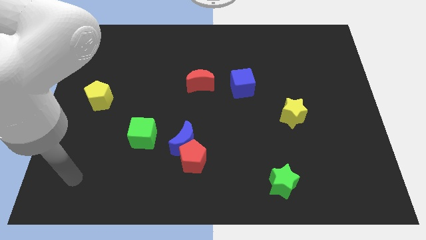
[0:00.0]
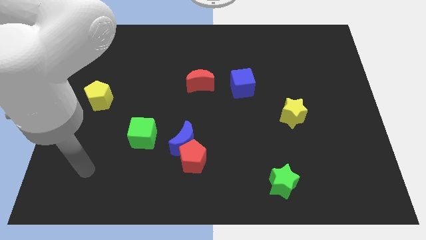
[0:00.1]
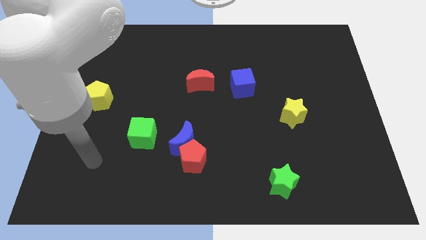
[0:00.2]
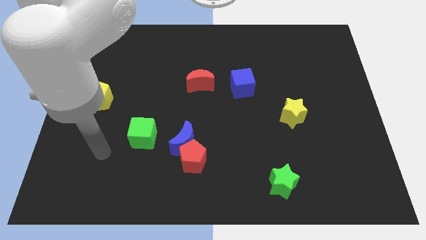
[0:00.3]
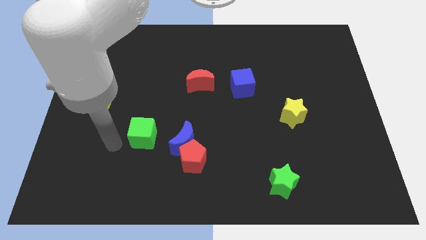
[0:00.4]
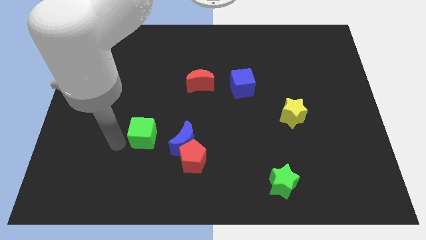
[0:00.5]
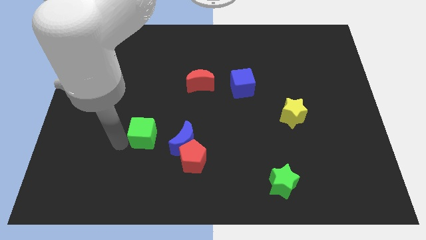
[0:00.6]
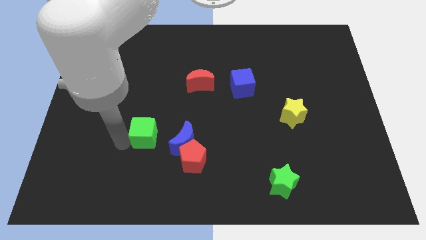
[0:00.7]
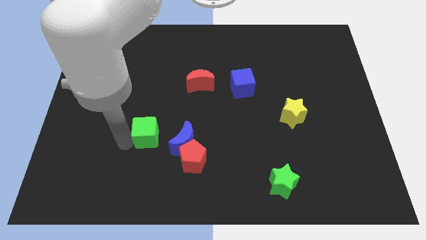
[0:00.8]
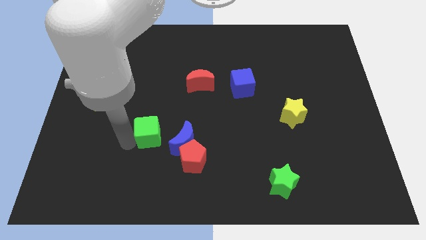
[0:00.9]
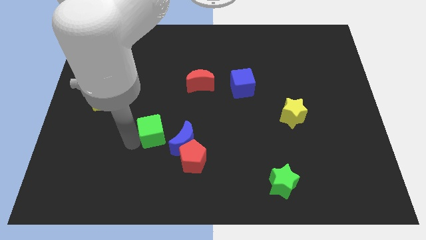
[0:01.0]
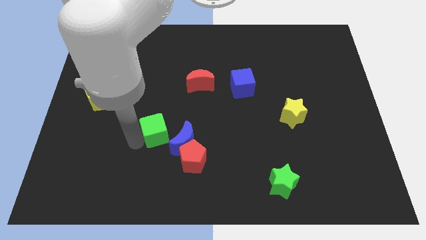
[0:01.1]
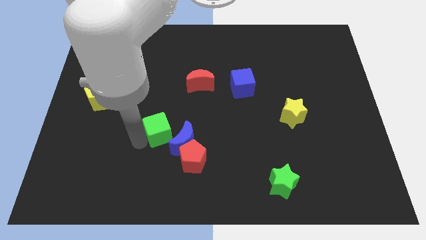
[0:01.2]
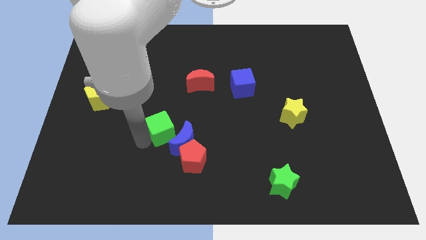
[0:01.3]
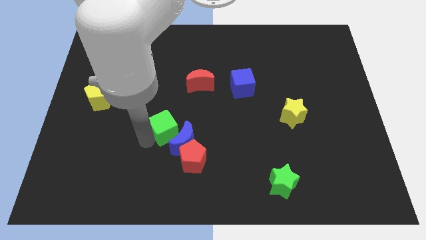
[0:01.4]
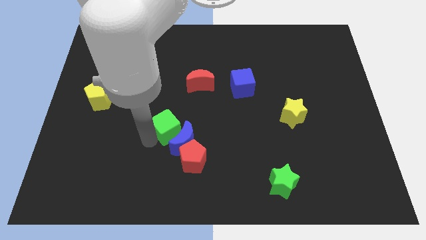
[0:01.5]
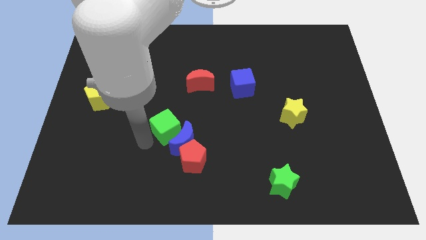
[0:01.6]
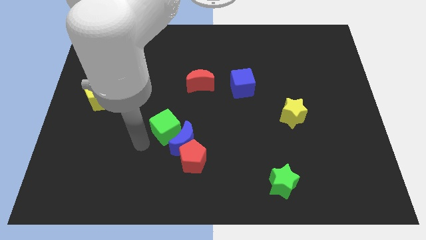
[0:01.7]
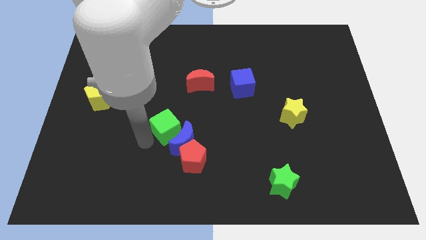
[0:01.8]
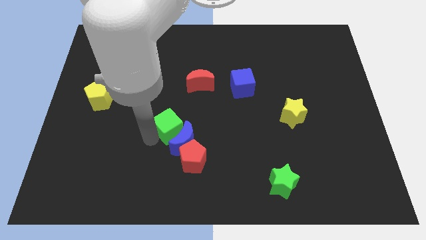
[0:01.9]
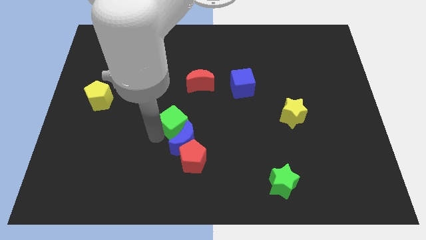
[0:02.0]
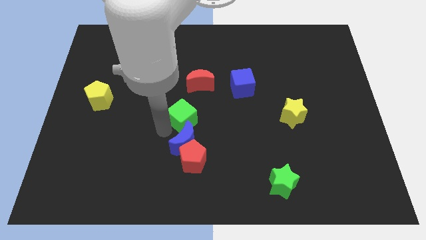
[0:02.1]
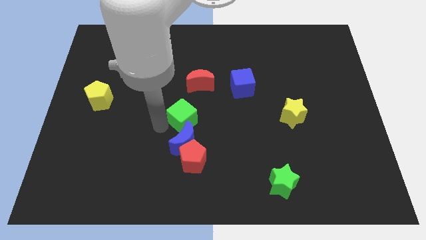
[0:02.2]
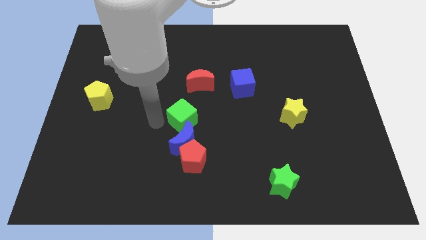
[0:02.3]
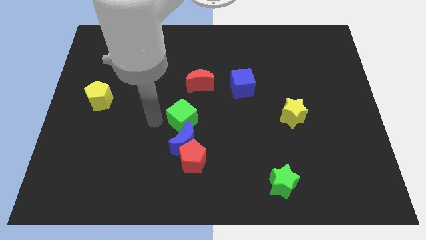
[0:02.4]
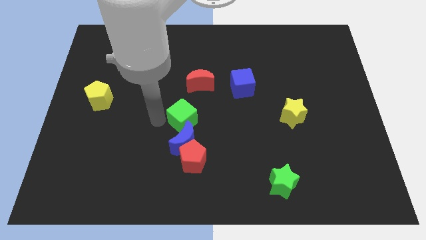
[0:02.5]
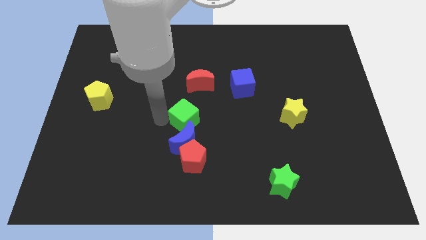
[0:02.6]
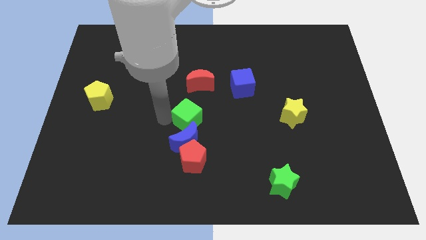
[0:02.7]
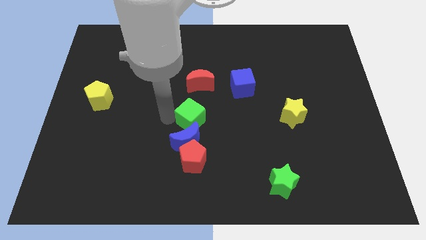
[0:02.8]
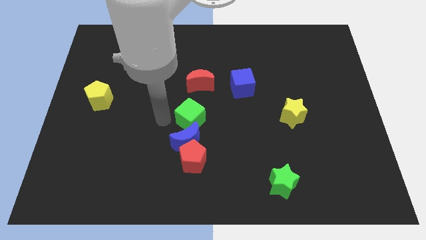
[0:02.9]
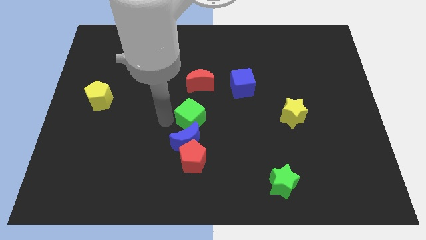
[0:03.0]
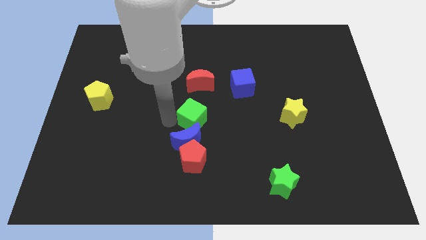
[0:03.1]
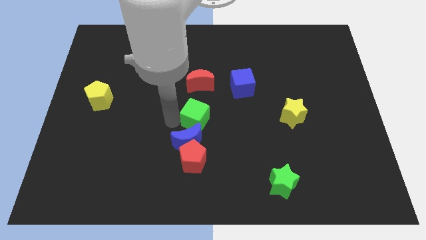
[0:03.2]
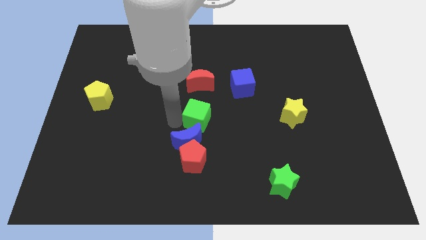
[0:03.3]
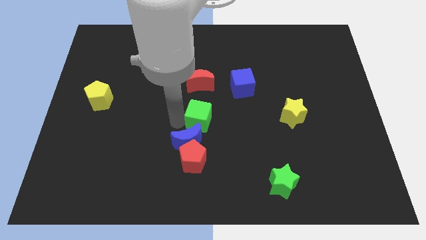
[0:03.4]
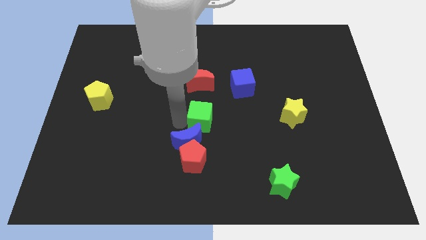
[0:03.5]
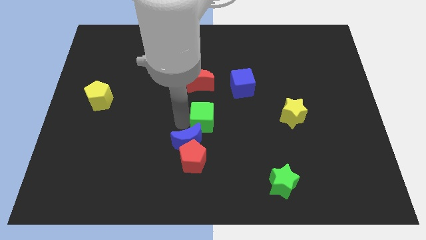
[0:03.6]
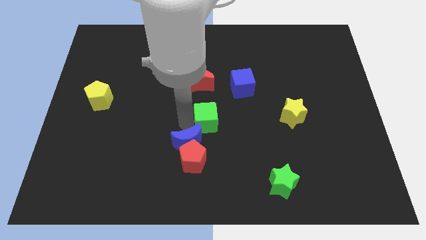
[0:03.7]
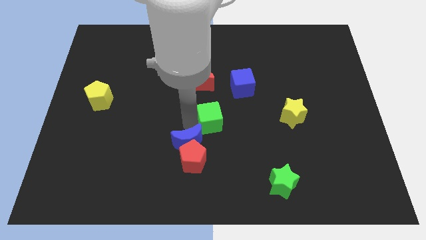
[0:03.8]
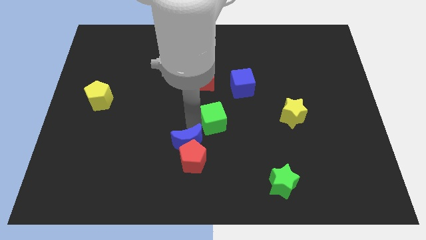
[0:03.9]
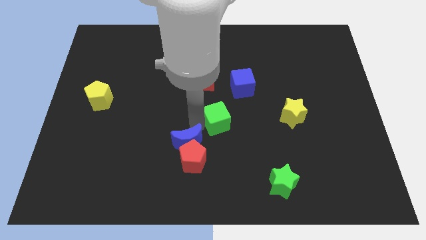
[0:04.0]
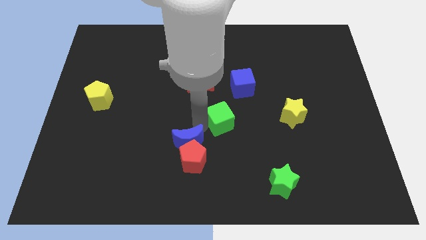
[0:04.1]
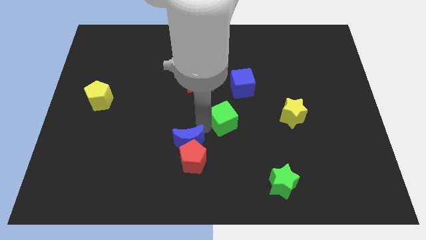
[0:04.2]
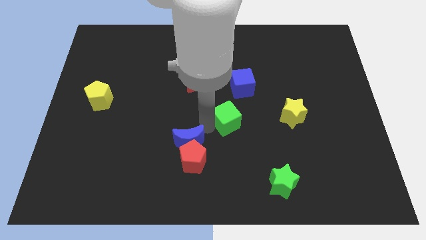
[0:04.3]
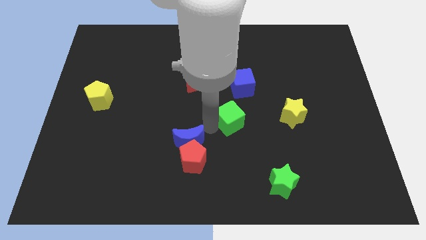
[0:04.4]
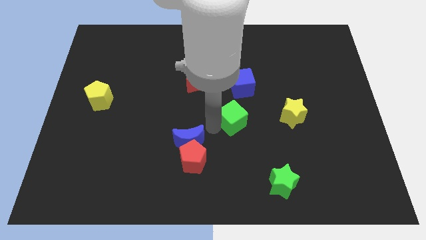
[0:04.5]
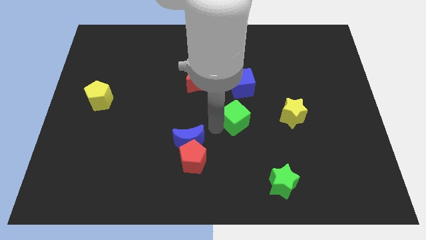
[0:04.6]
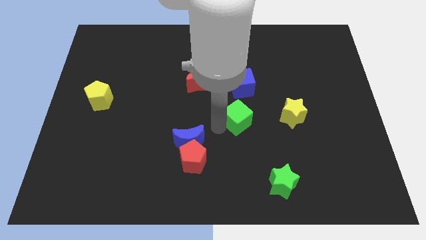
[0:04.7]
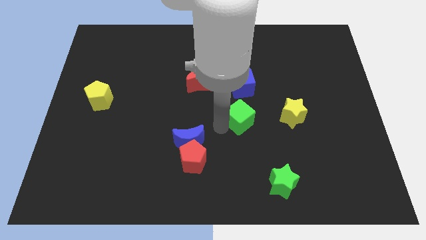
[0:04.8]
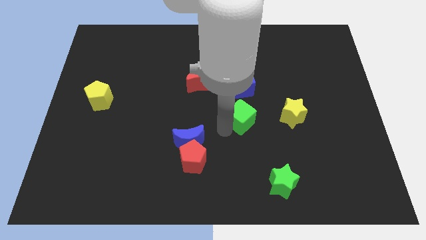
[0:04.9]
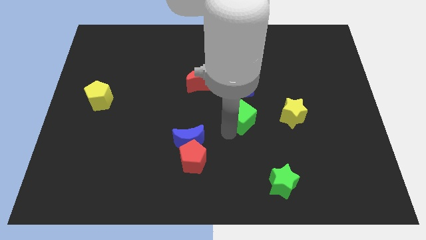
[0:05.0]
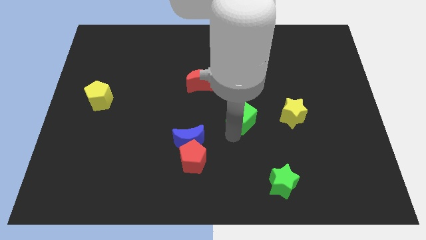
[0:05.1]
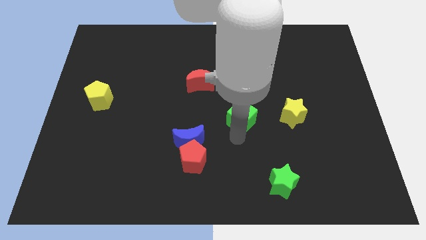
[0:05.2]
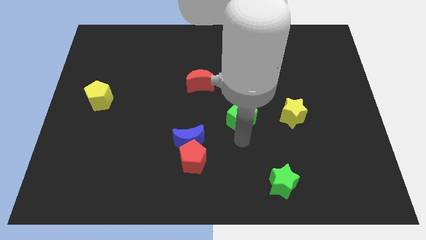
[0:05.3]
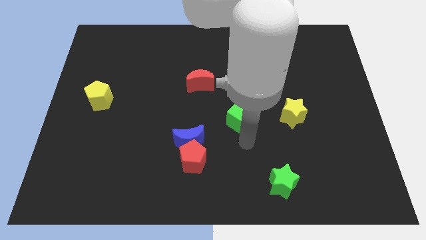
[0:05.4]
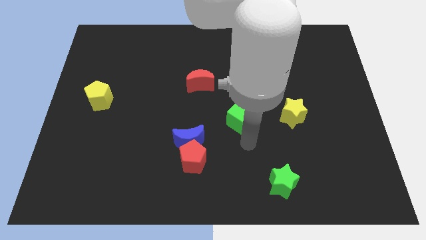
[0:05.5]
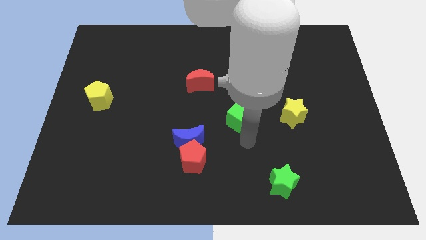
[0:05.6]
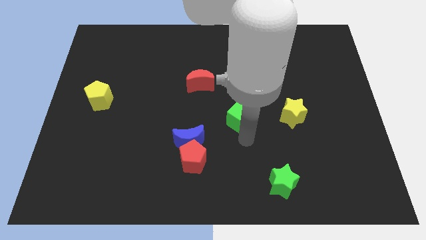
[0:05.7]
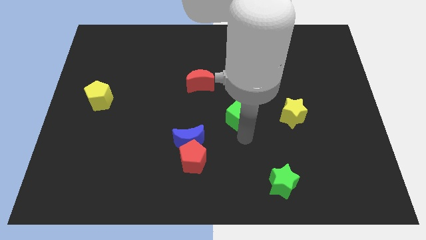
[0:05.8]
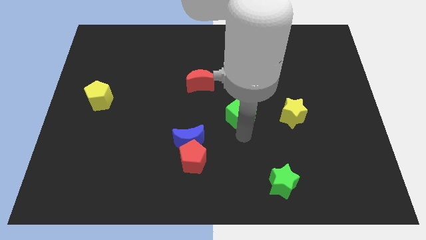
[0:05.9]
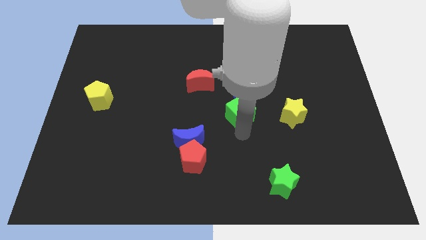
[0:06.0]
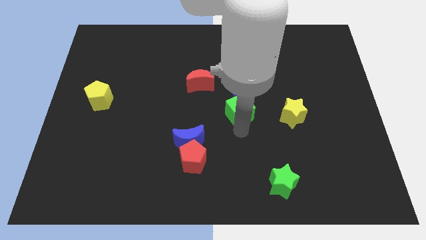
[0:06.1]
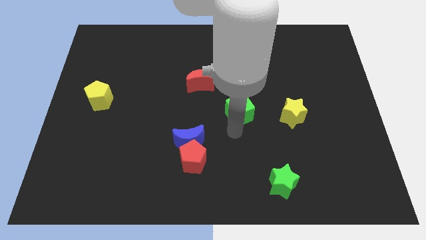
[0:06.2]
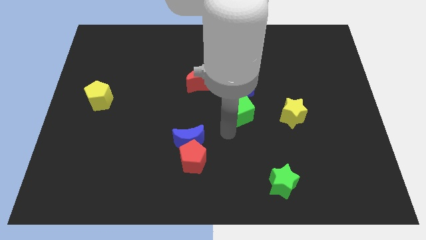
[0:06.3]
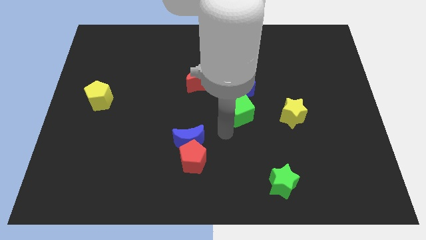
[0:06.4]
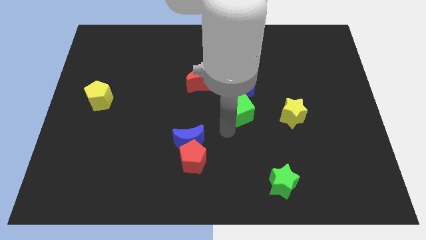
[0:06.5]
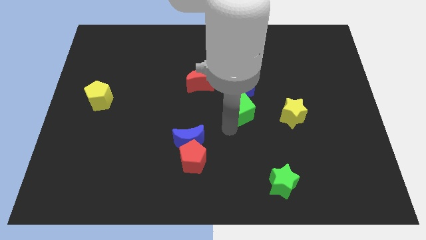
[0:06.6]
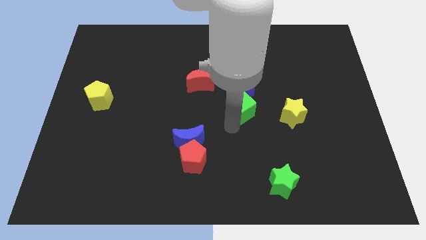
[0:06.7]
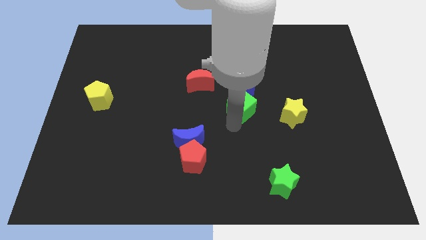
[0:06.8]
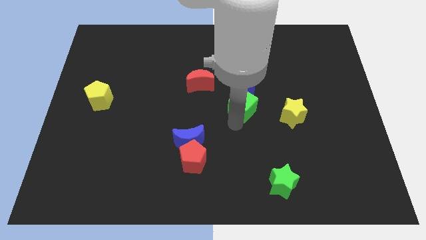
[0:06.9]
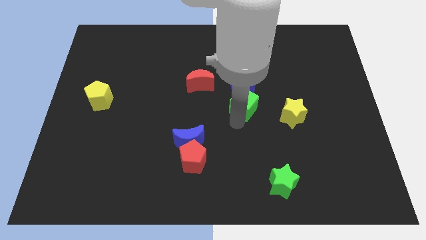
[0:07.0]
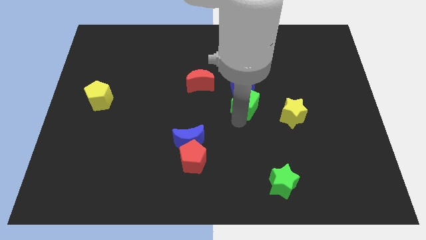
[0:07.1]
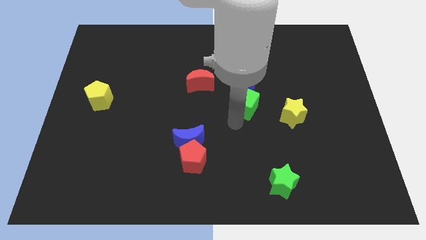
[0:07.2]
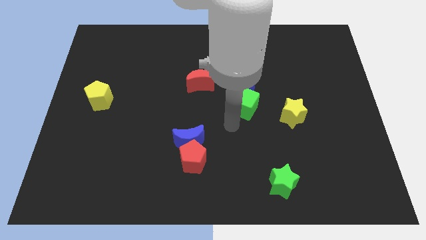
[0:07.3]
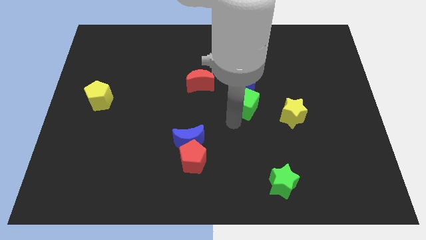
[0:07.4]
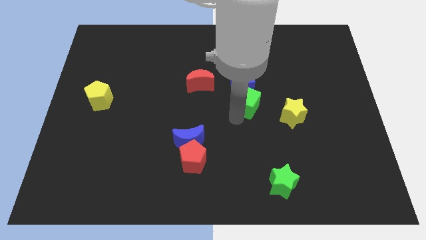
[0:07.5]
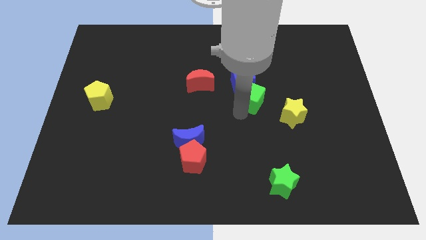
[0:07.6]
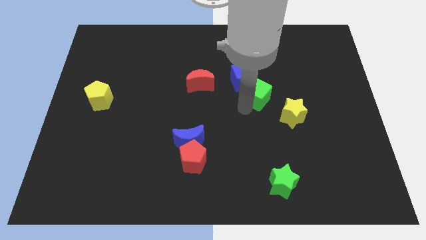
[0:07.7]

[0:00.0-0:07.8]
push the green cube to the right side of the red moon
